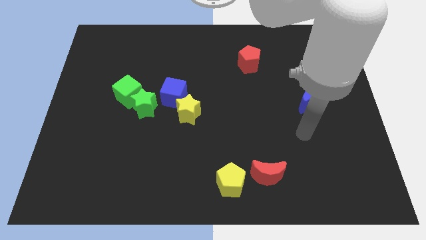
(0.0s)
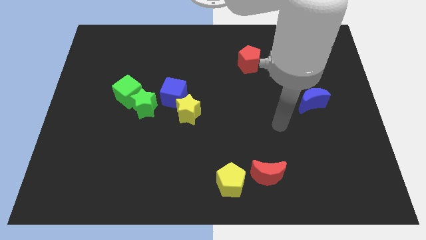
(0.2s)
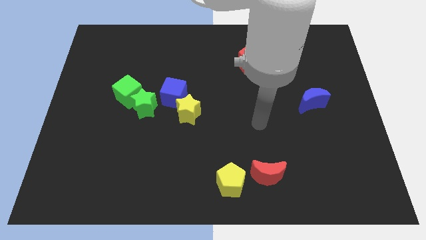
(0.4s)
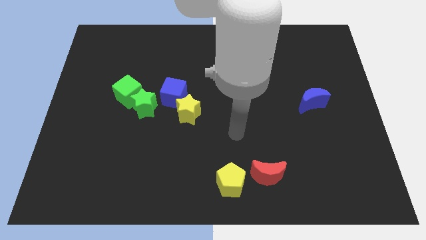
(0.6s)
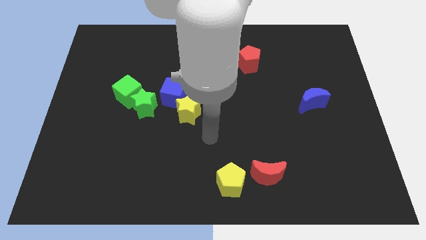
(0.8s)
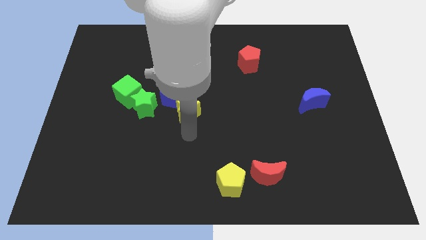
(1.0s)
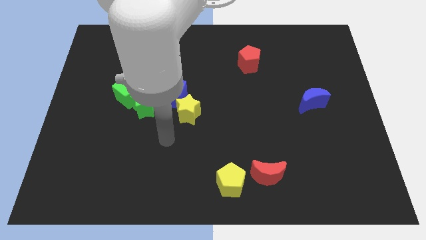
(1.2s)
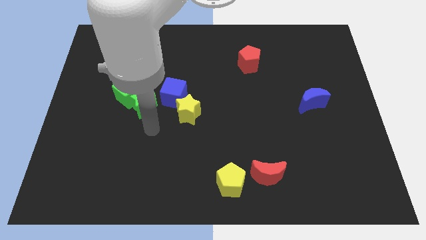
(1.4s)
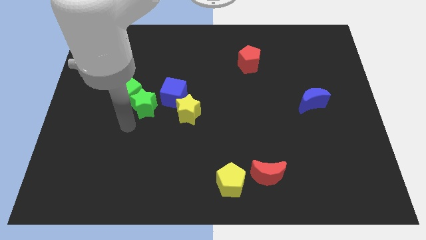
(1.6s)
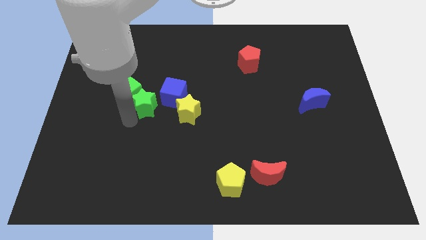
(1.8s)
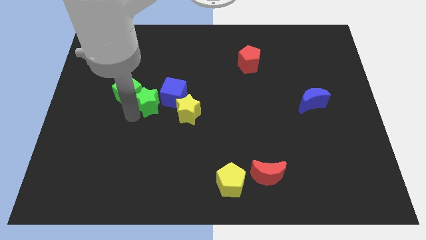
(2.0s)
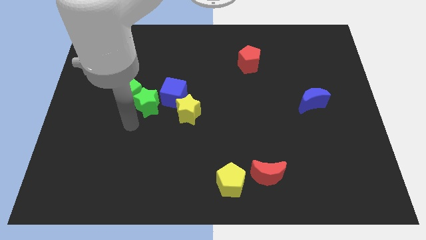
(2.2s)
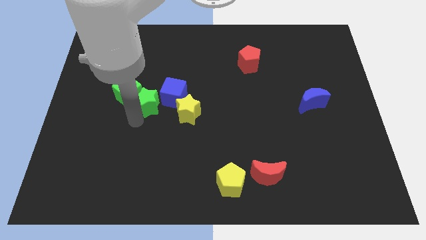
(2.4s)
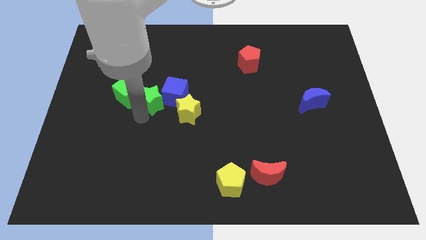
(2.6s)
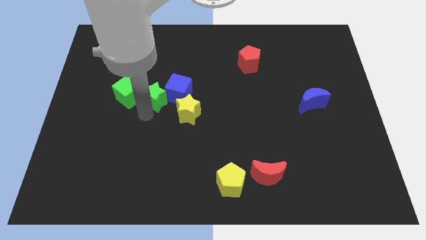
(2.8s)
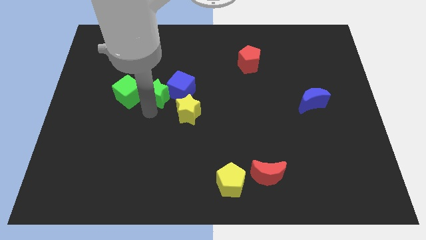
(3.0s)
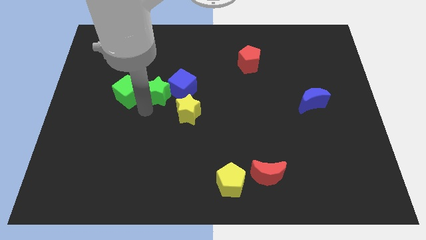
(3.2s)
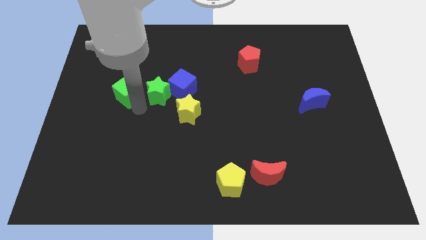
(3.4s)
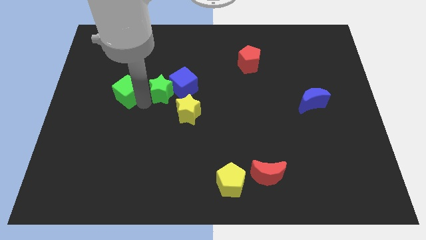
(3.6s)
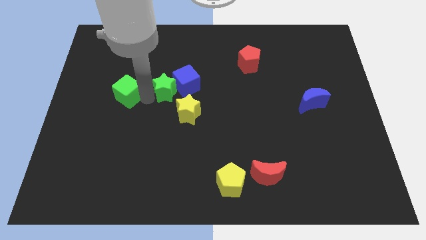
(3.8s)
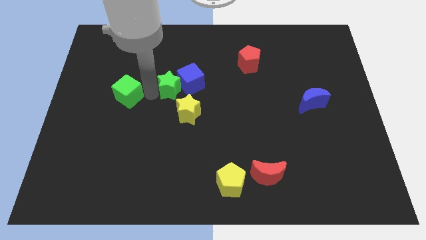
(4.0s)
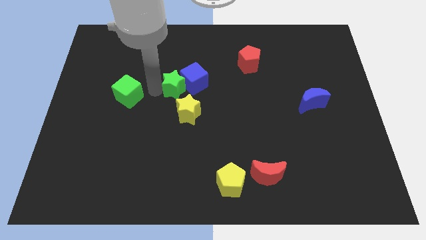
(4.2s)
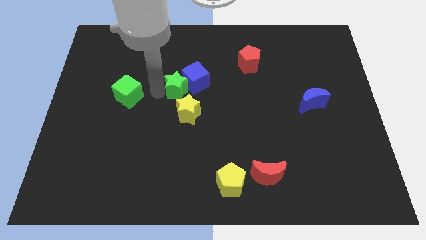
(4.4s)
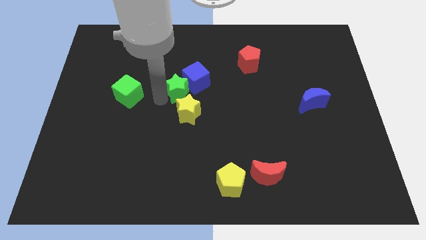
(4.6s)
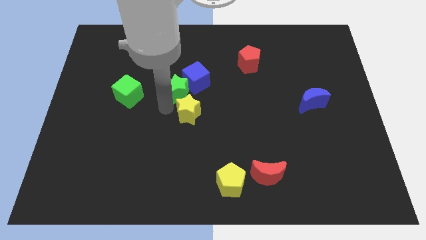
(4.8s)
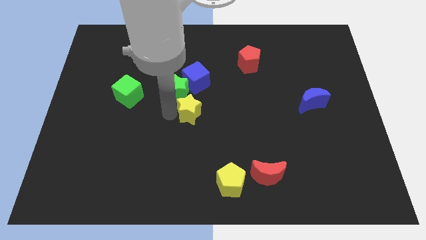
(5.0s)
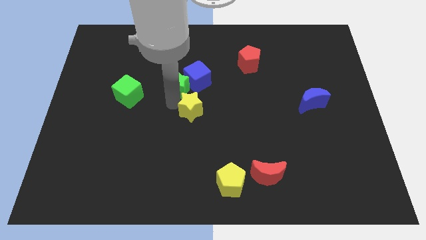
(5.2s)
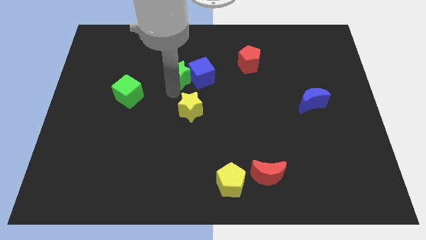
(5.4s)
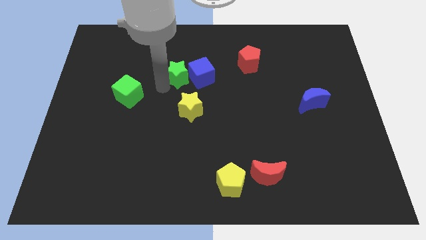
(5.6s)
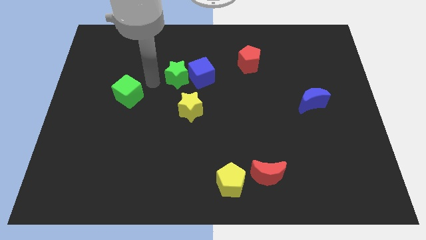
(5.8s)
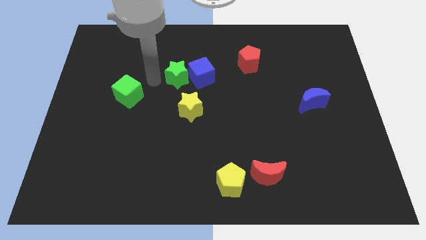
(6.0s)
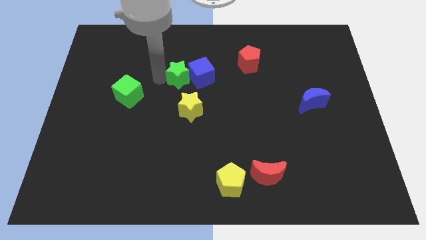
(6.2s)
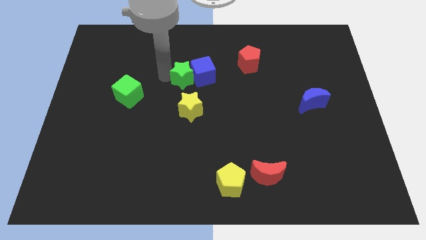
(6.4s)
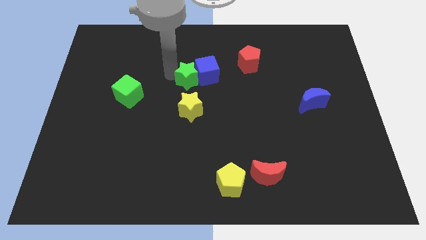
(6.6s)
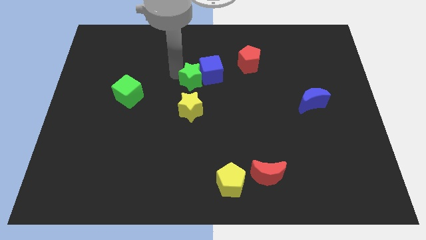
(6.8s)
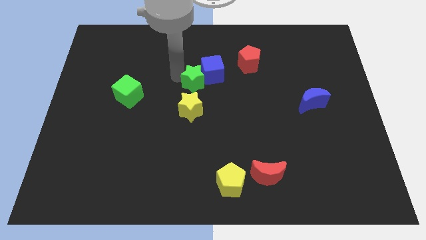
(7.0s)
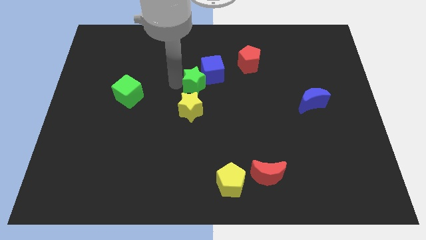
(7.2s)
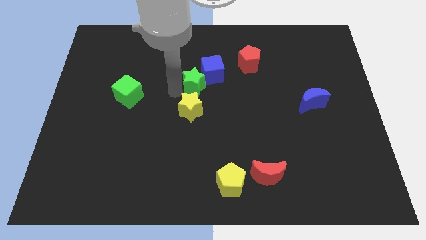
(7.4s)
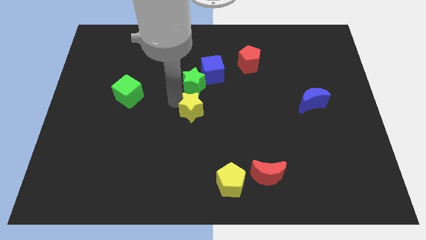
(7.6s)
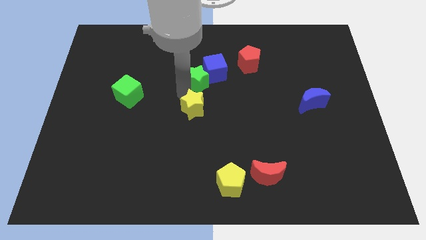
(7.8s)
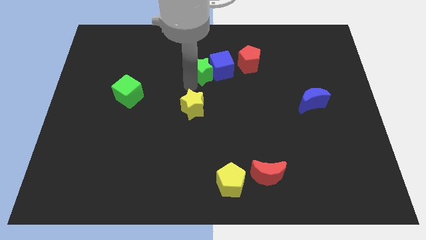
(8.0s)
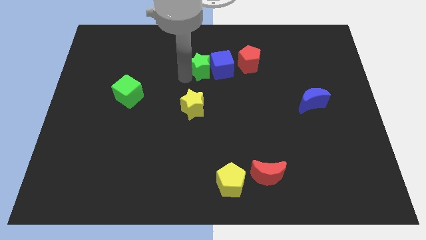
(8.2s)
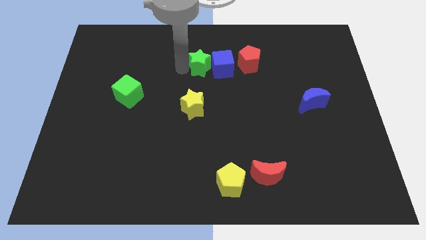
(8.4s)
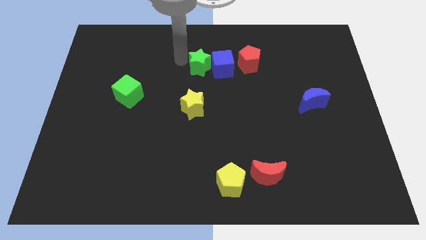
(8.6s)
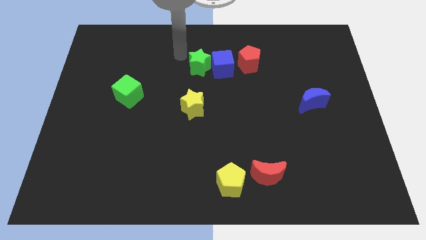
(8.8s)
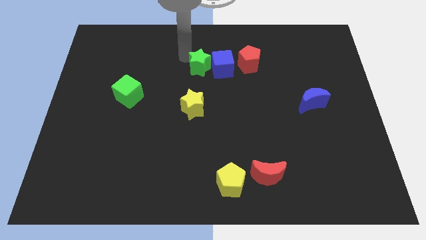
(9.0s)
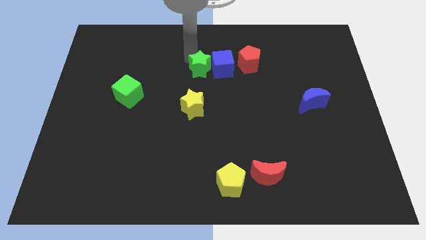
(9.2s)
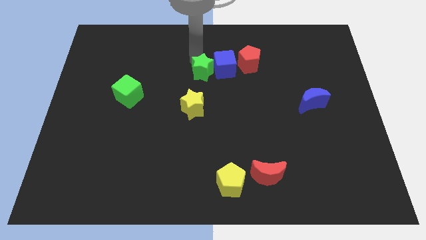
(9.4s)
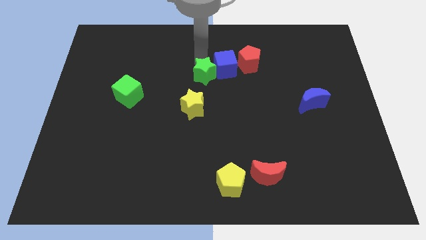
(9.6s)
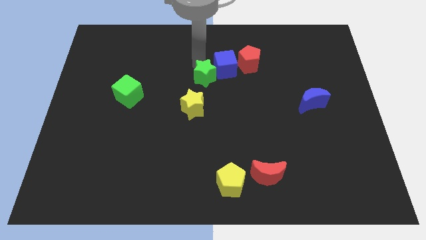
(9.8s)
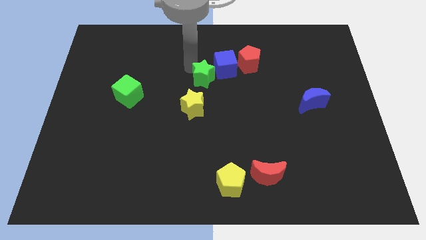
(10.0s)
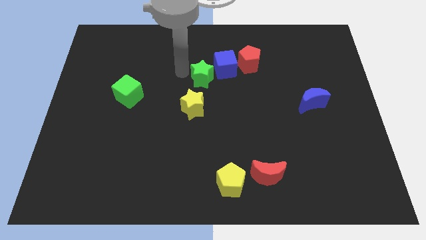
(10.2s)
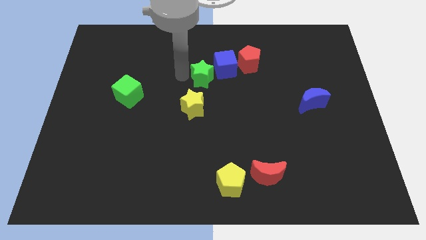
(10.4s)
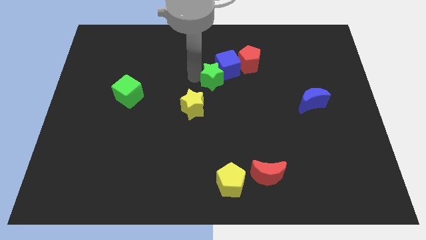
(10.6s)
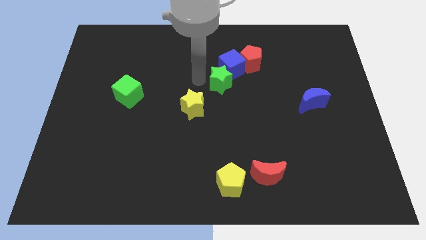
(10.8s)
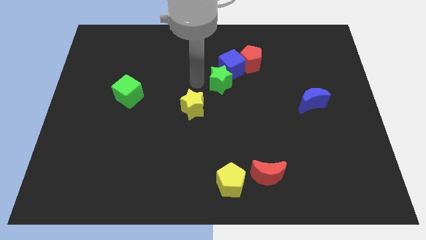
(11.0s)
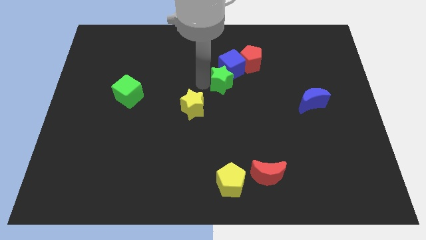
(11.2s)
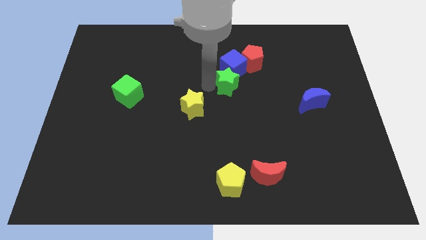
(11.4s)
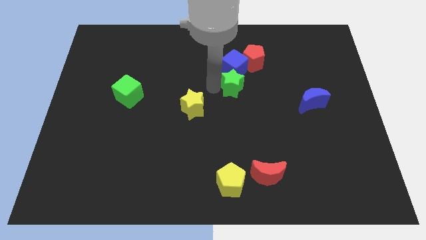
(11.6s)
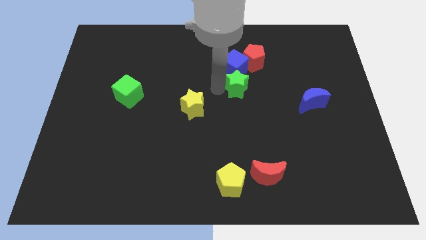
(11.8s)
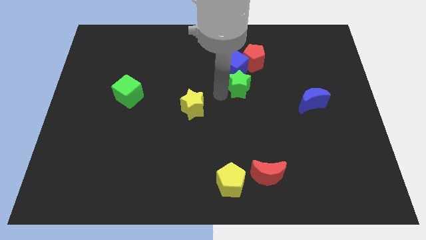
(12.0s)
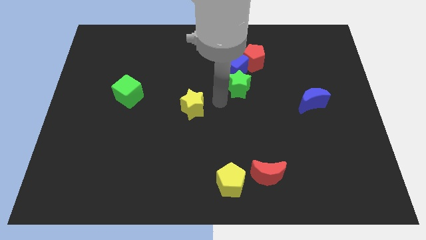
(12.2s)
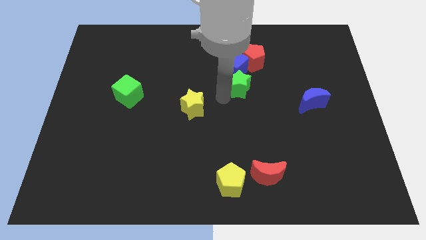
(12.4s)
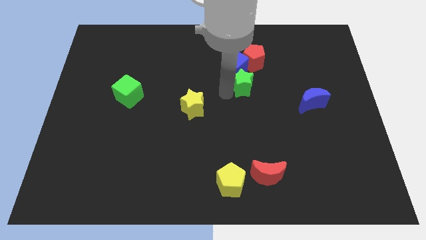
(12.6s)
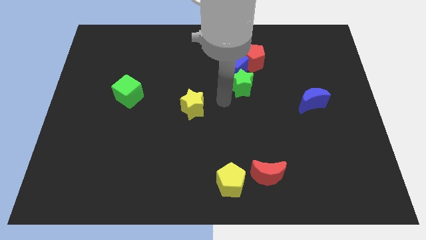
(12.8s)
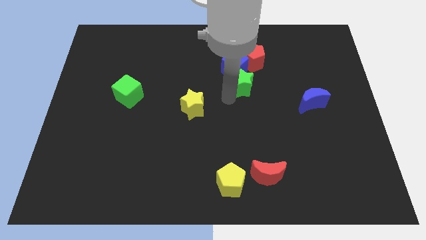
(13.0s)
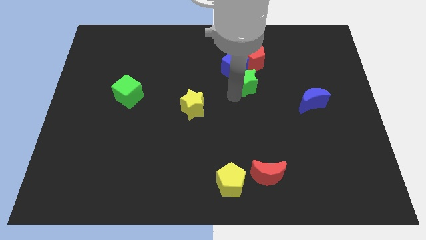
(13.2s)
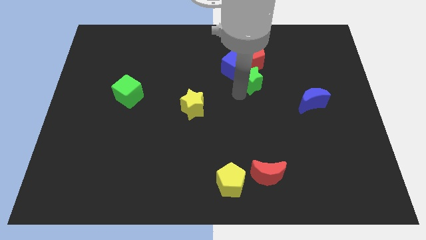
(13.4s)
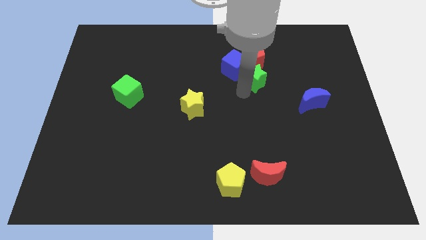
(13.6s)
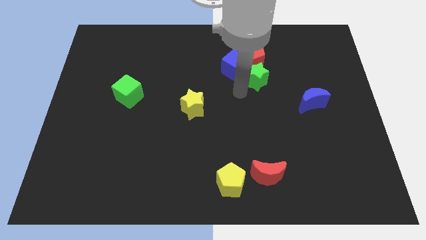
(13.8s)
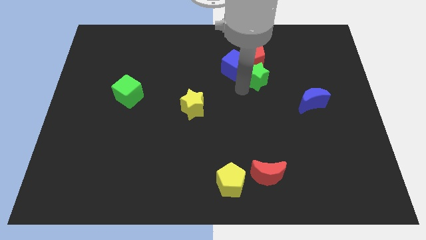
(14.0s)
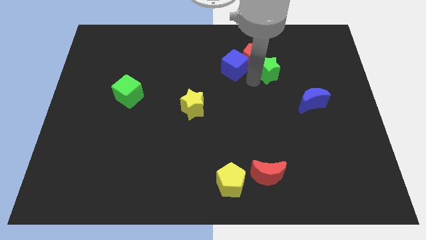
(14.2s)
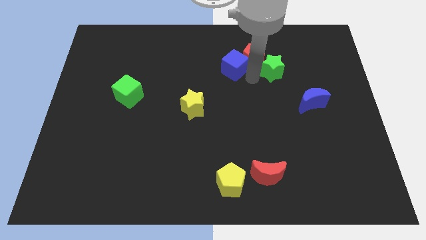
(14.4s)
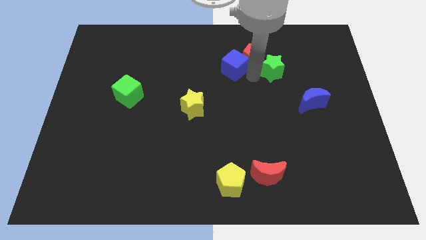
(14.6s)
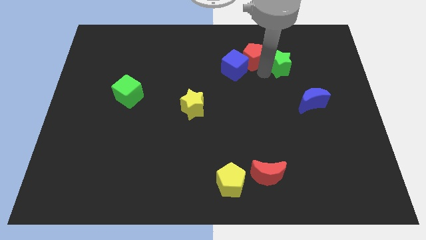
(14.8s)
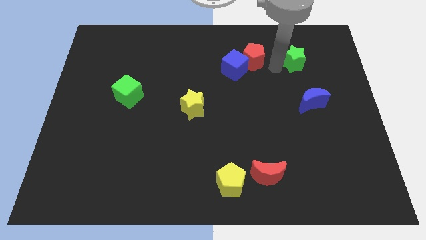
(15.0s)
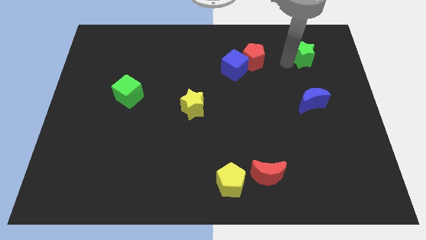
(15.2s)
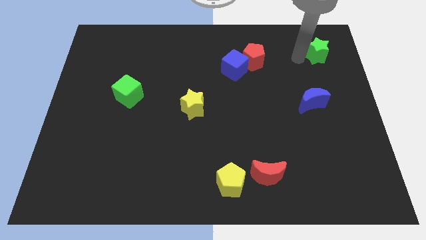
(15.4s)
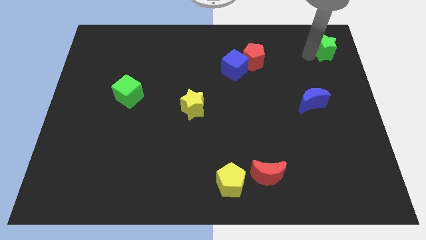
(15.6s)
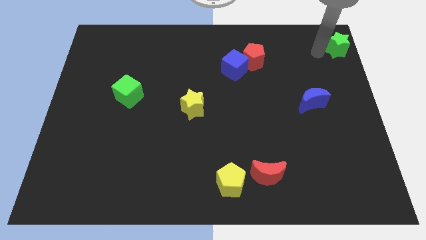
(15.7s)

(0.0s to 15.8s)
move the green star to the top right corner
